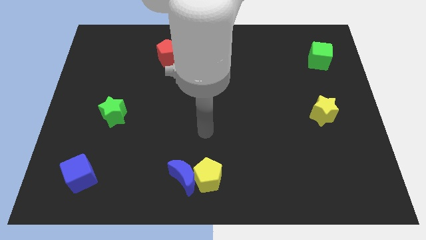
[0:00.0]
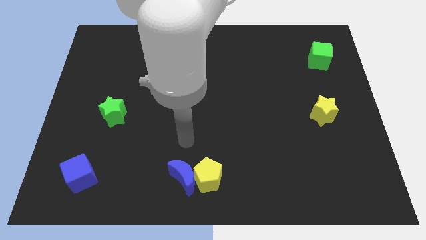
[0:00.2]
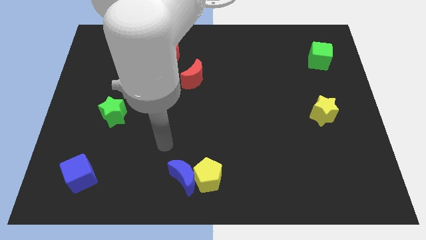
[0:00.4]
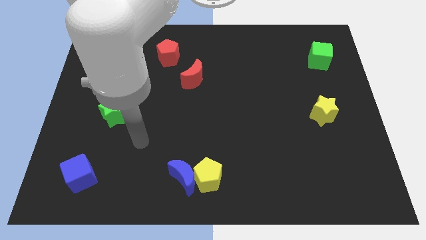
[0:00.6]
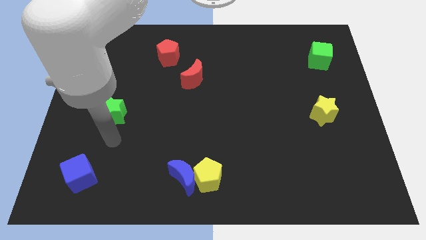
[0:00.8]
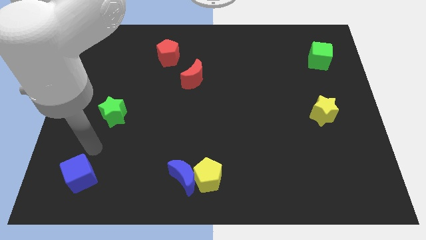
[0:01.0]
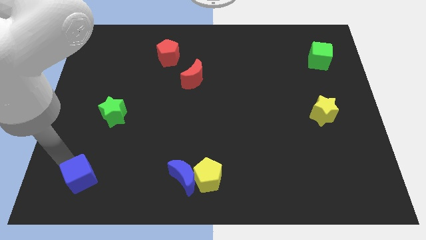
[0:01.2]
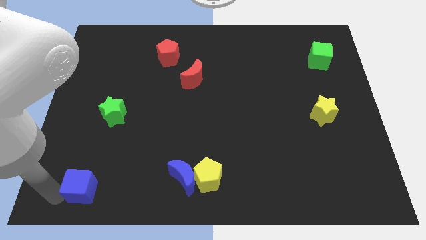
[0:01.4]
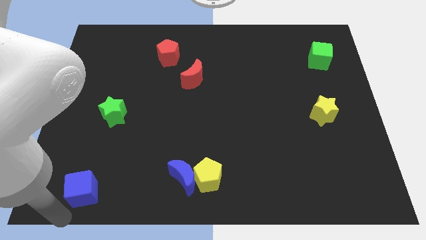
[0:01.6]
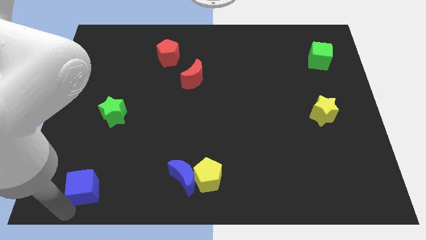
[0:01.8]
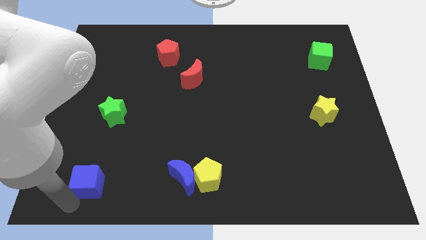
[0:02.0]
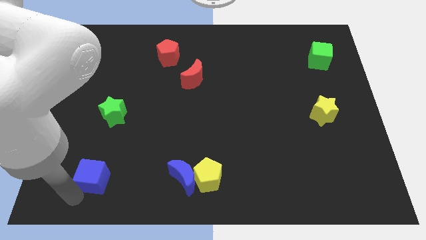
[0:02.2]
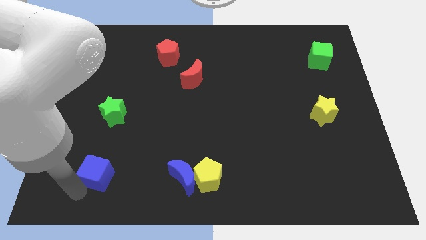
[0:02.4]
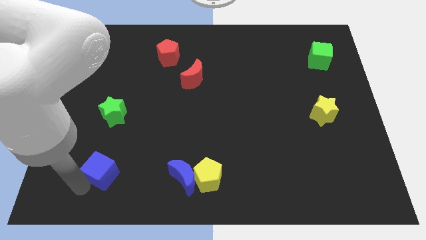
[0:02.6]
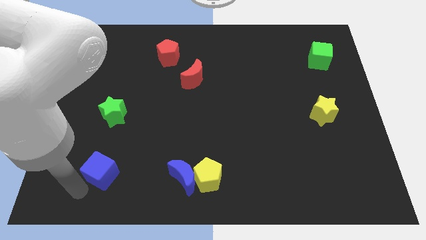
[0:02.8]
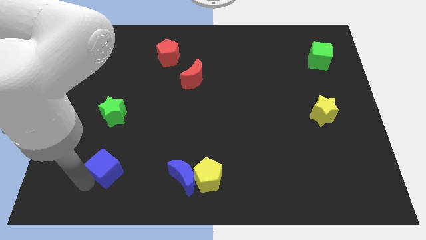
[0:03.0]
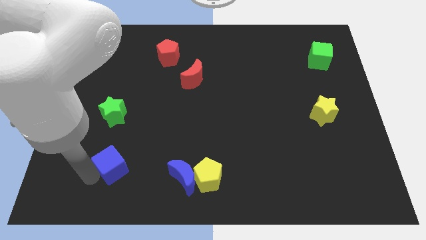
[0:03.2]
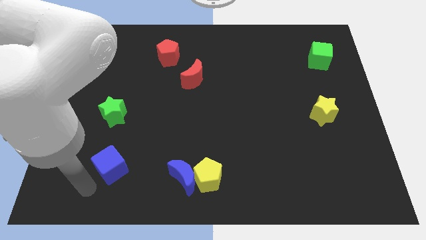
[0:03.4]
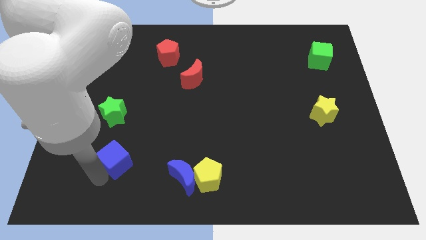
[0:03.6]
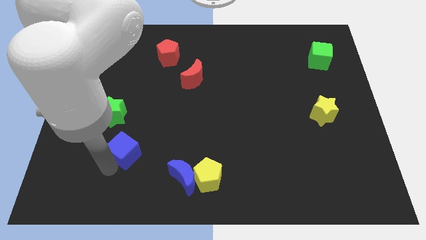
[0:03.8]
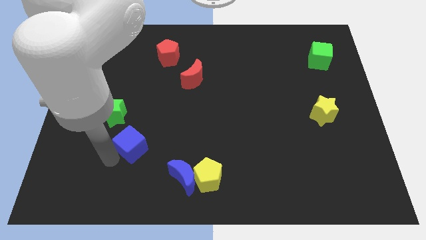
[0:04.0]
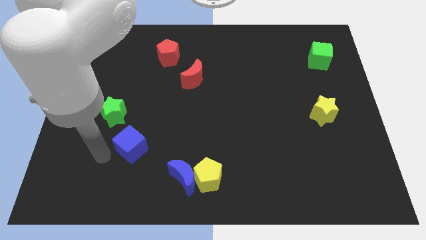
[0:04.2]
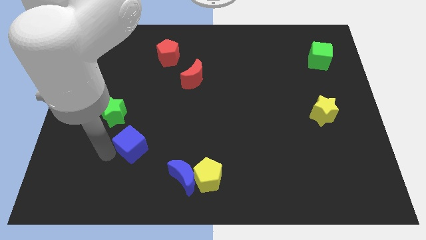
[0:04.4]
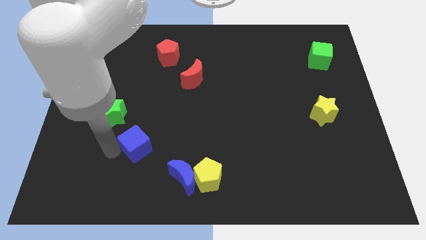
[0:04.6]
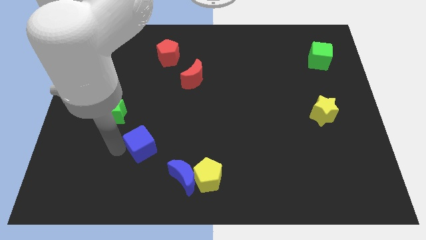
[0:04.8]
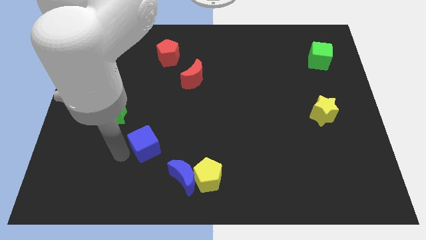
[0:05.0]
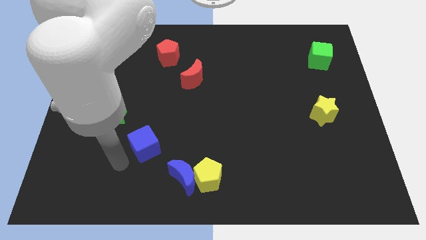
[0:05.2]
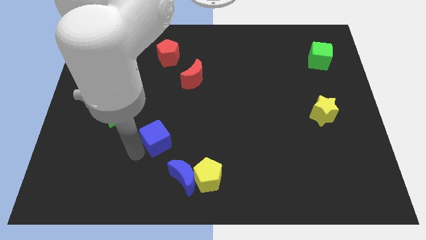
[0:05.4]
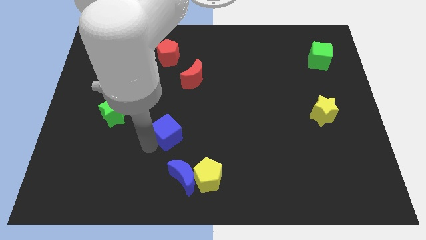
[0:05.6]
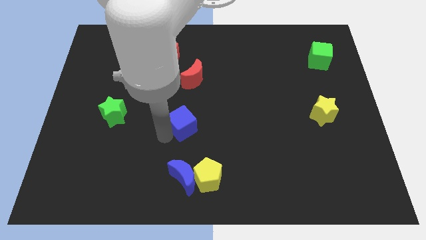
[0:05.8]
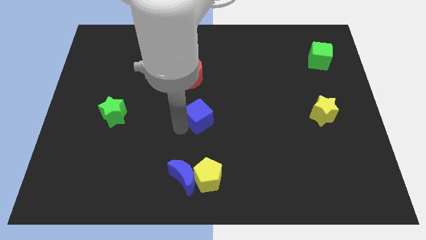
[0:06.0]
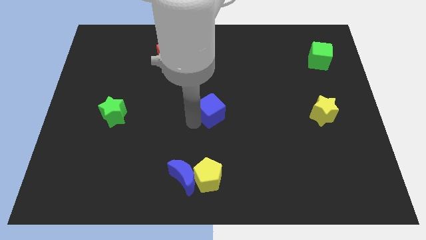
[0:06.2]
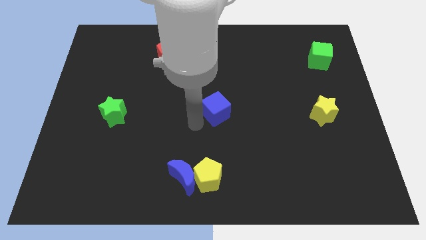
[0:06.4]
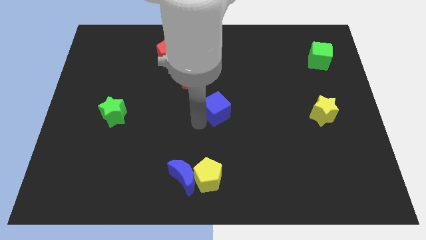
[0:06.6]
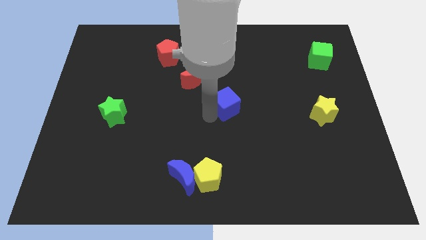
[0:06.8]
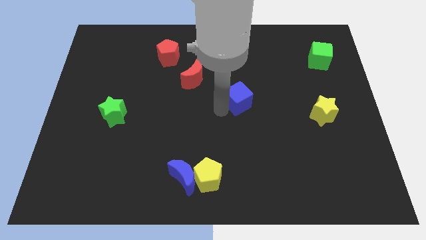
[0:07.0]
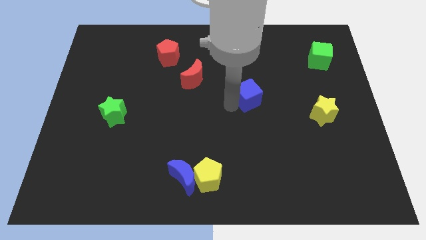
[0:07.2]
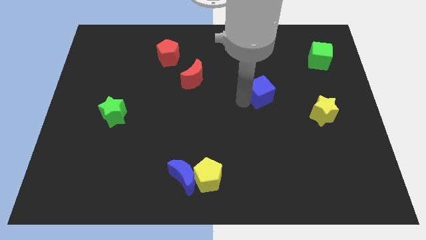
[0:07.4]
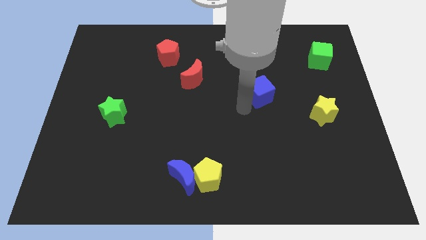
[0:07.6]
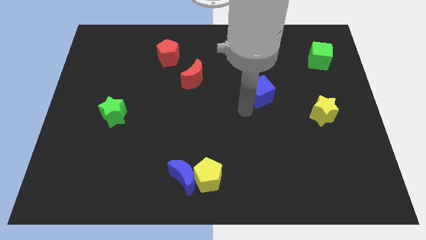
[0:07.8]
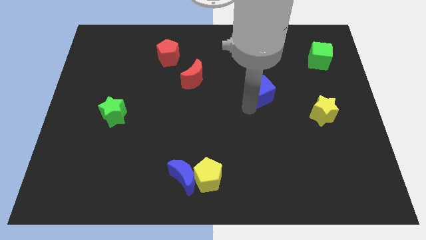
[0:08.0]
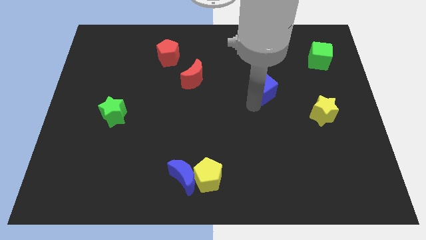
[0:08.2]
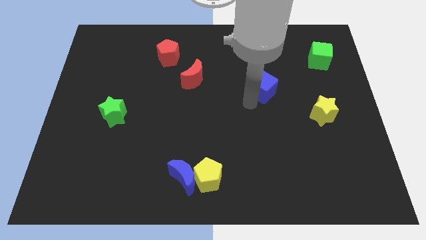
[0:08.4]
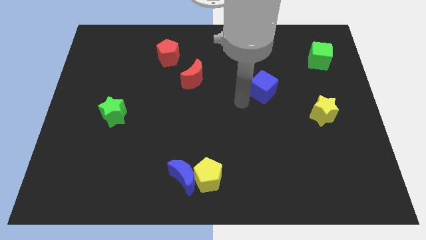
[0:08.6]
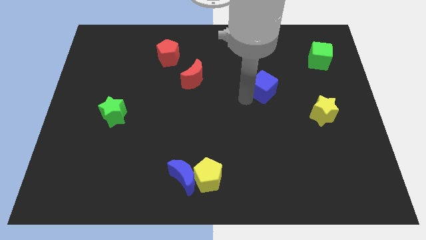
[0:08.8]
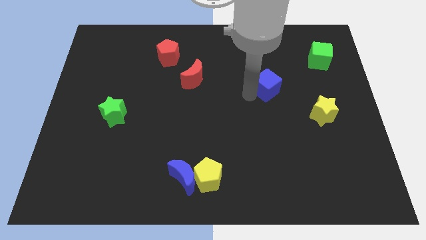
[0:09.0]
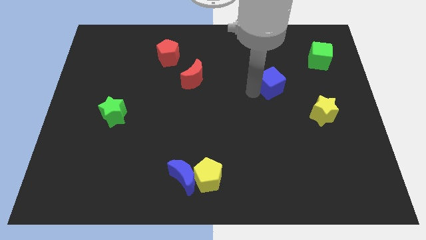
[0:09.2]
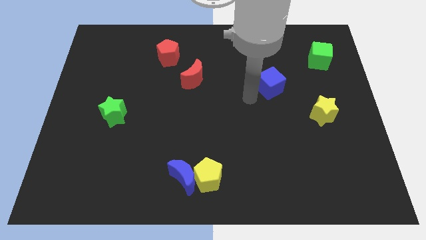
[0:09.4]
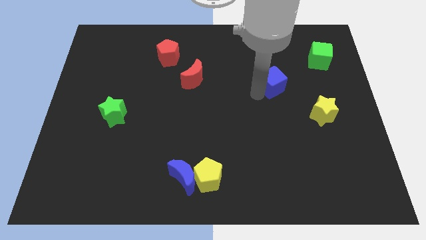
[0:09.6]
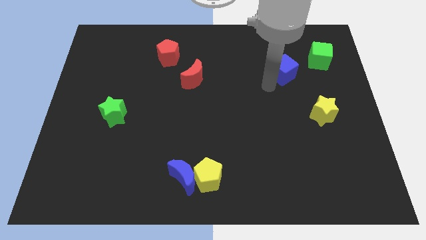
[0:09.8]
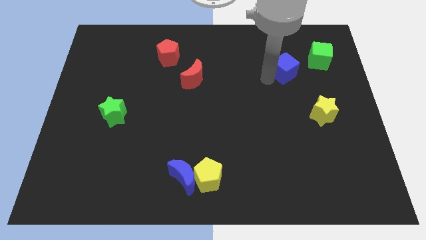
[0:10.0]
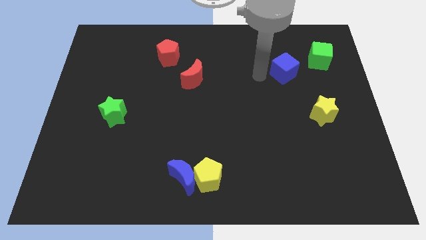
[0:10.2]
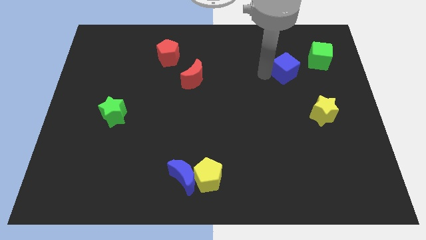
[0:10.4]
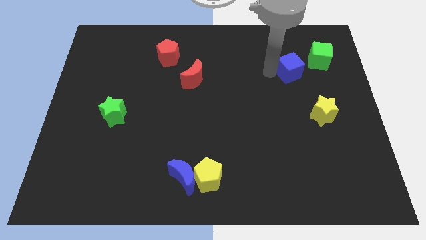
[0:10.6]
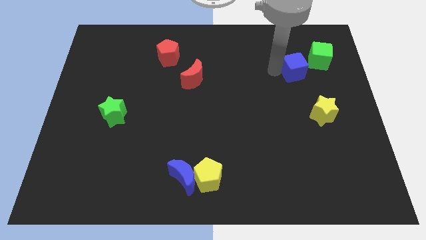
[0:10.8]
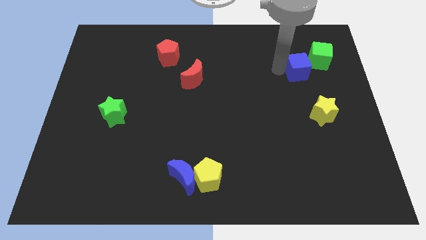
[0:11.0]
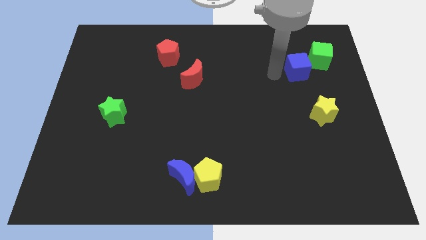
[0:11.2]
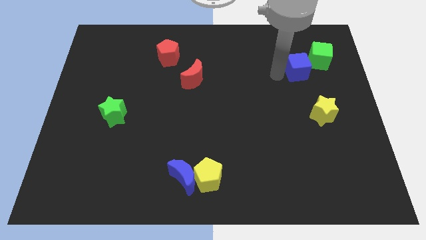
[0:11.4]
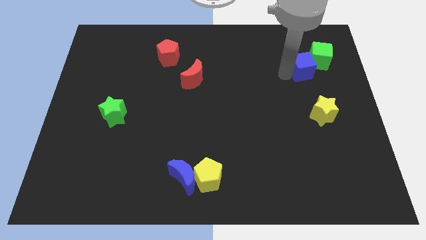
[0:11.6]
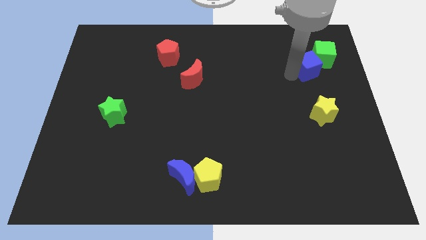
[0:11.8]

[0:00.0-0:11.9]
put the blue cube to the green cube

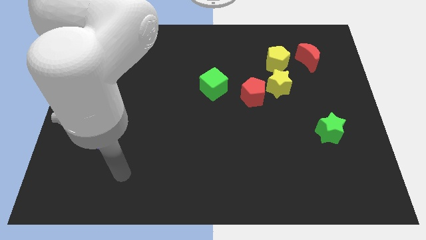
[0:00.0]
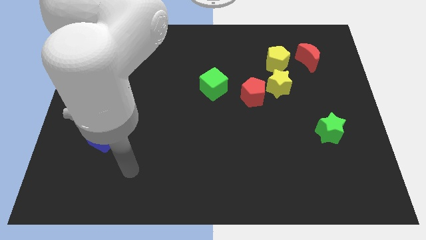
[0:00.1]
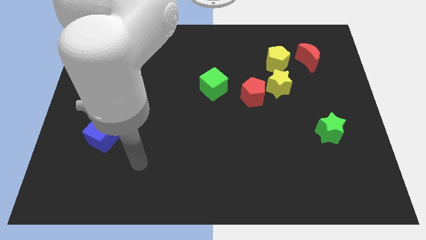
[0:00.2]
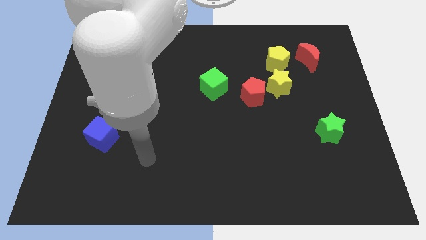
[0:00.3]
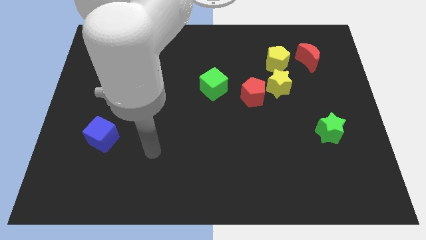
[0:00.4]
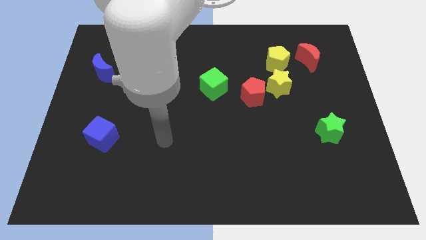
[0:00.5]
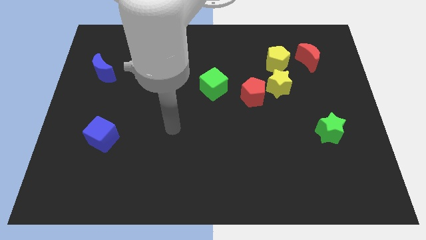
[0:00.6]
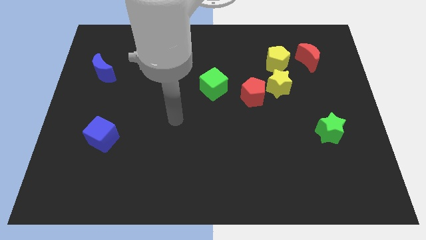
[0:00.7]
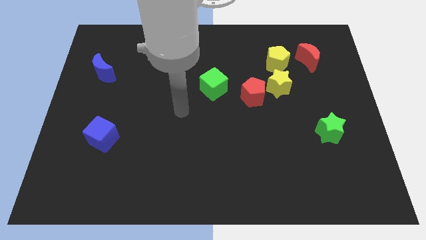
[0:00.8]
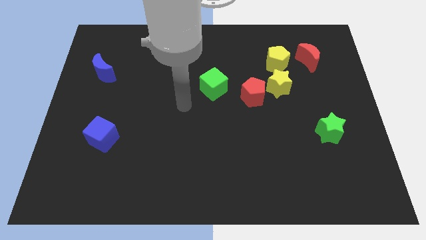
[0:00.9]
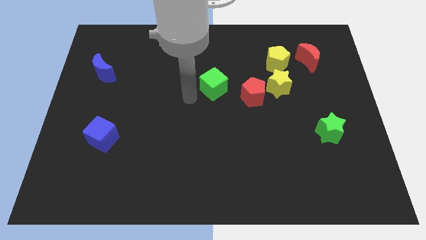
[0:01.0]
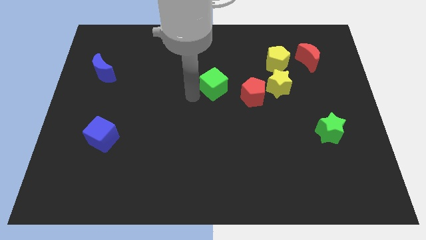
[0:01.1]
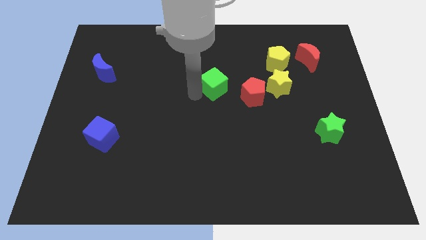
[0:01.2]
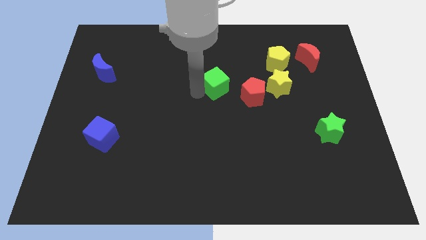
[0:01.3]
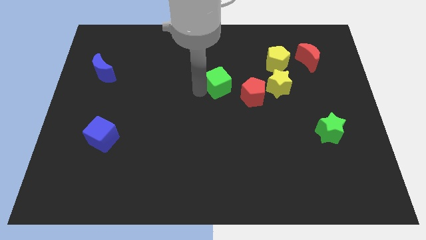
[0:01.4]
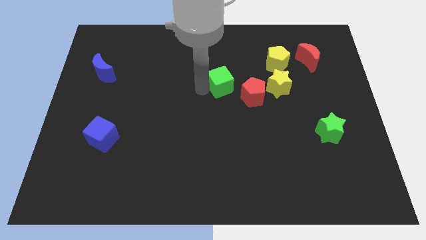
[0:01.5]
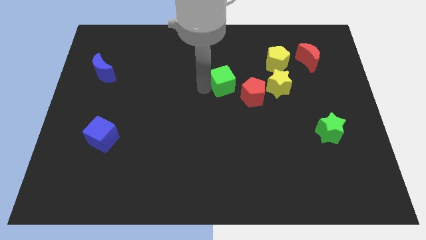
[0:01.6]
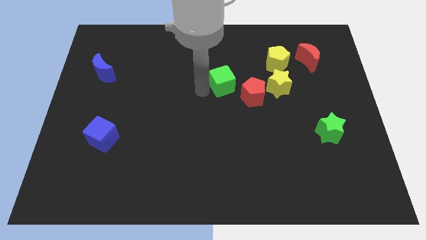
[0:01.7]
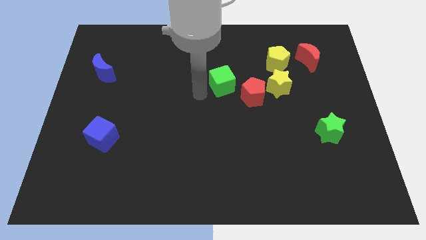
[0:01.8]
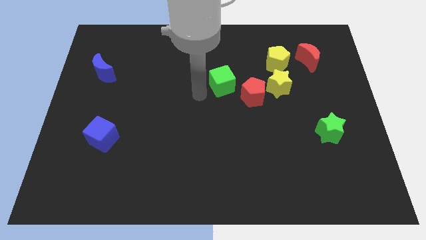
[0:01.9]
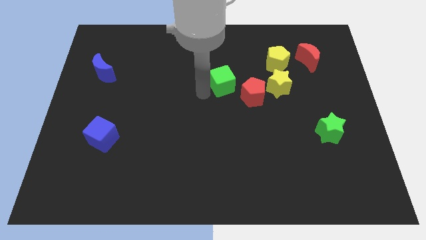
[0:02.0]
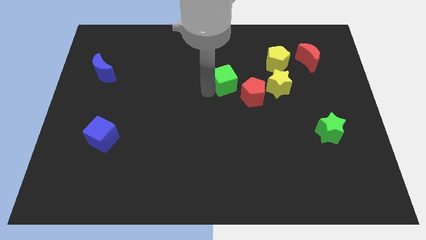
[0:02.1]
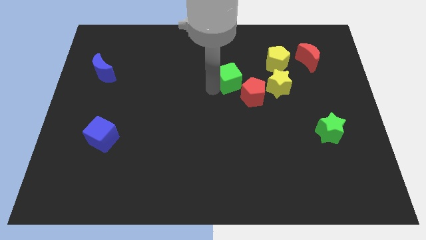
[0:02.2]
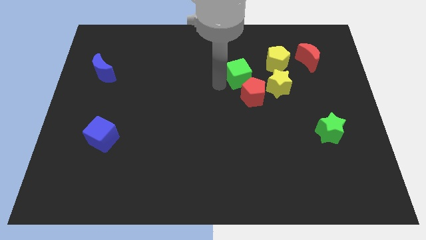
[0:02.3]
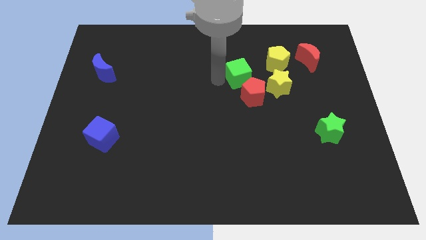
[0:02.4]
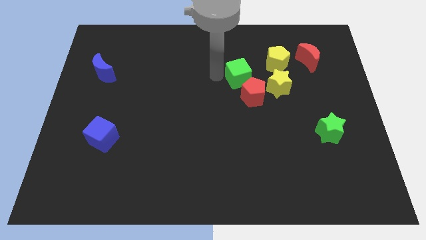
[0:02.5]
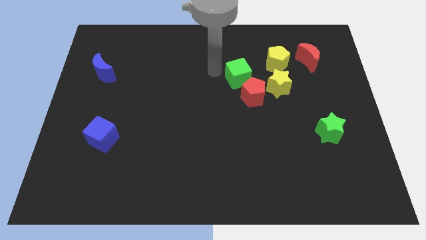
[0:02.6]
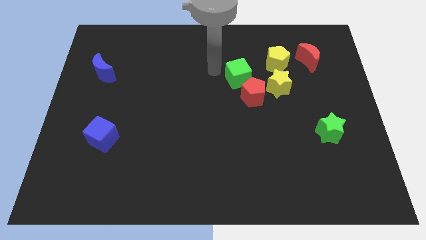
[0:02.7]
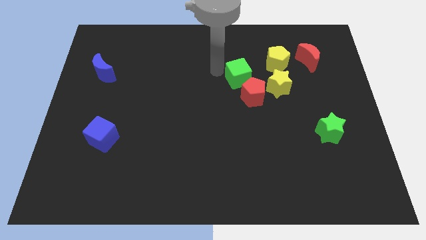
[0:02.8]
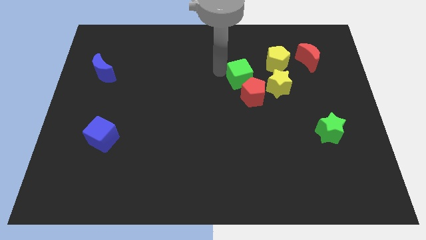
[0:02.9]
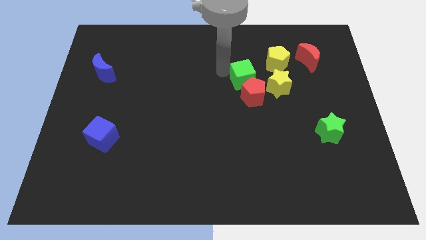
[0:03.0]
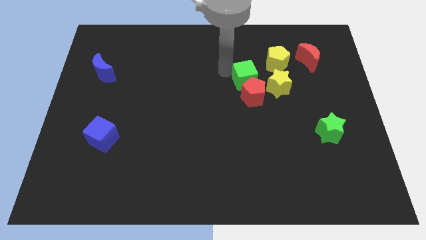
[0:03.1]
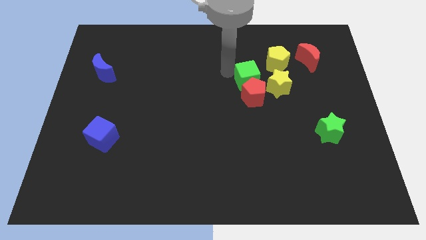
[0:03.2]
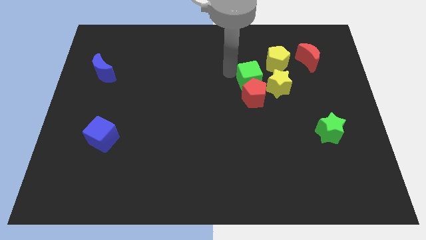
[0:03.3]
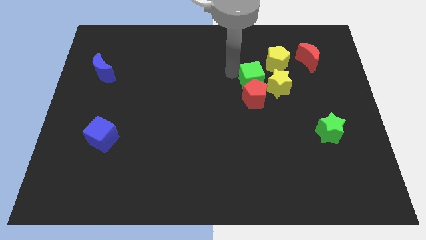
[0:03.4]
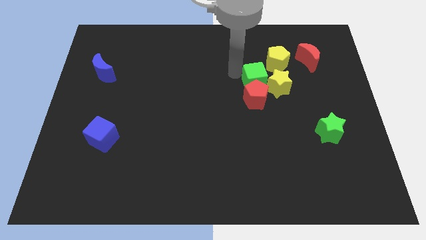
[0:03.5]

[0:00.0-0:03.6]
slide the green cube towards the yellow star
